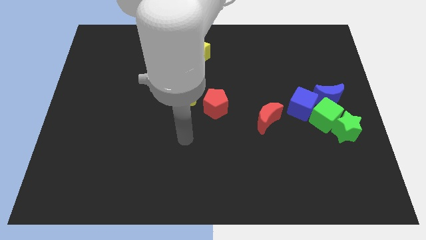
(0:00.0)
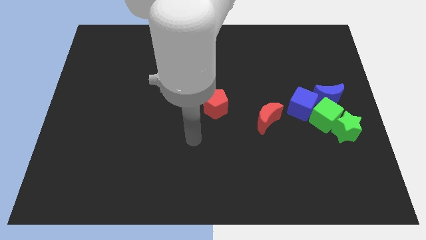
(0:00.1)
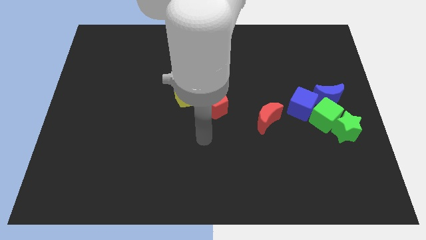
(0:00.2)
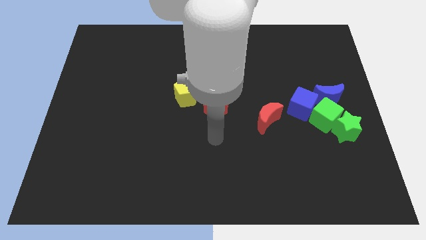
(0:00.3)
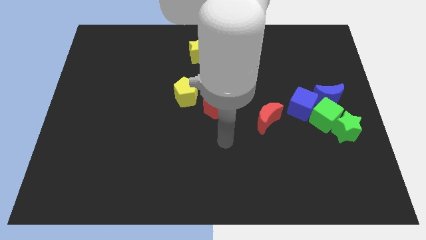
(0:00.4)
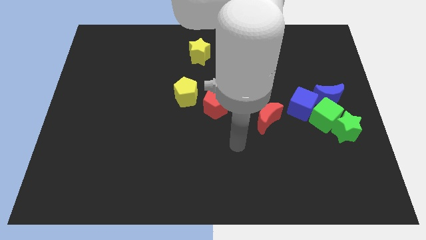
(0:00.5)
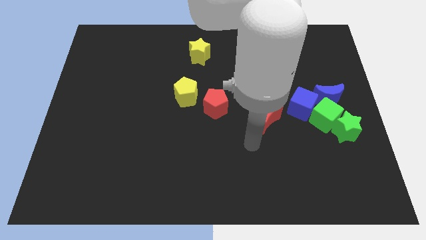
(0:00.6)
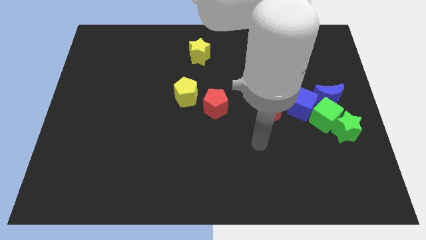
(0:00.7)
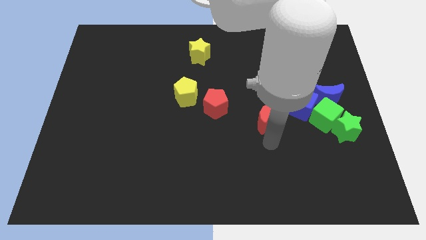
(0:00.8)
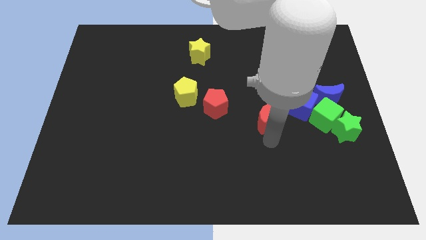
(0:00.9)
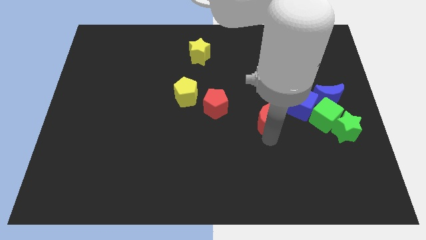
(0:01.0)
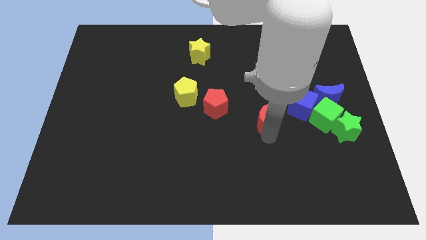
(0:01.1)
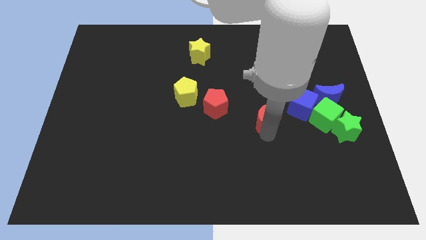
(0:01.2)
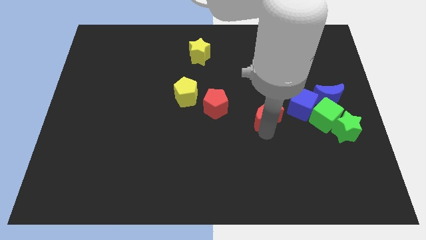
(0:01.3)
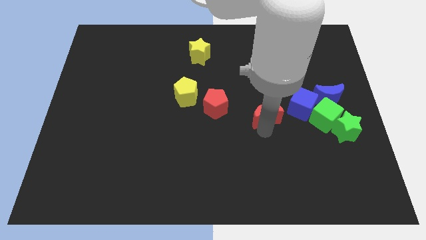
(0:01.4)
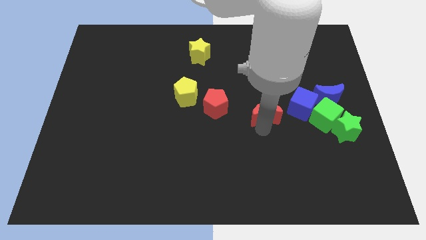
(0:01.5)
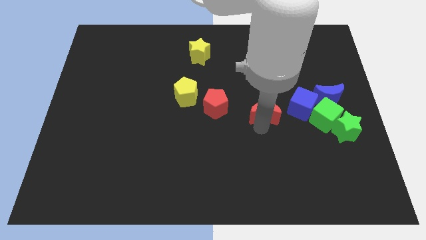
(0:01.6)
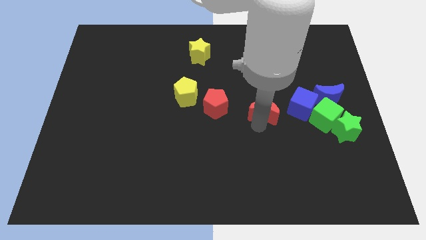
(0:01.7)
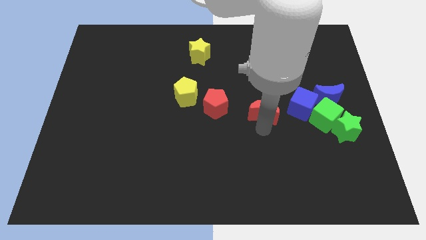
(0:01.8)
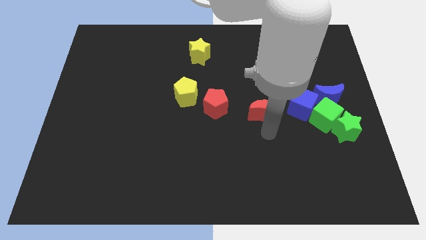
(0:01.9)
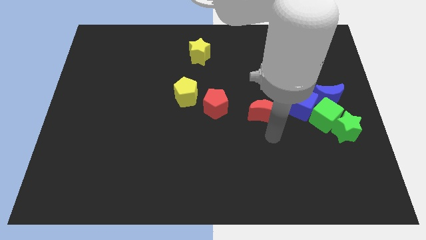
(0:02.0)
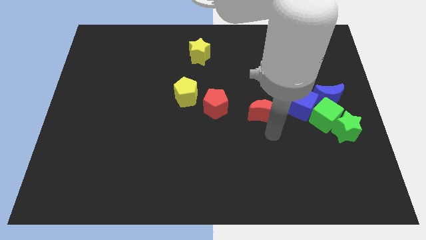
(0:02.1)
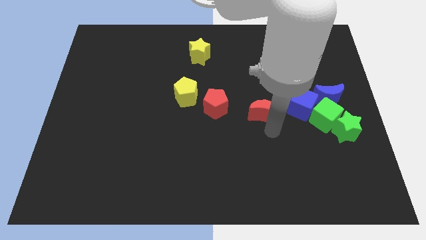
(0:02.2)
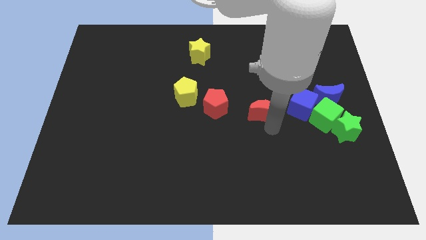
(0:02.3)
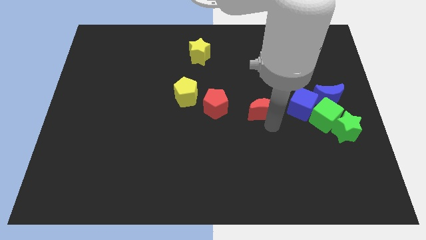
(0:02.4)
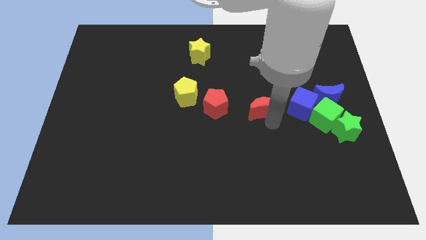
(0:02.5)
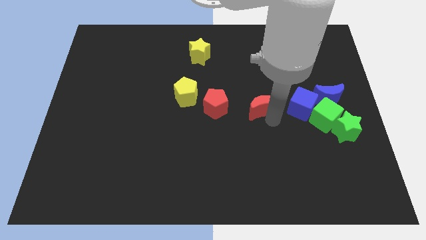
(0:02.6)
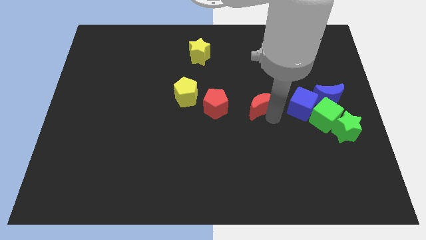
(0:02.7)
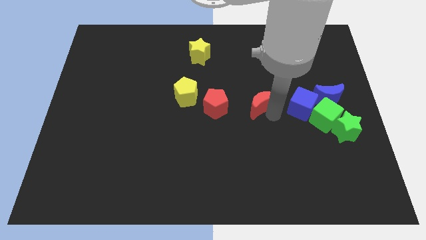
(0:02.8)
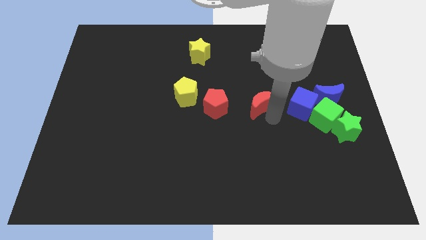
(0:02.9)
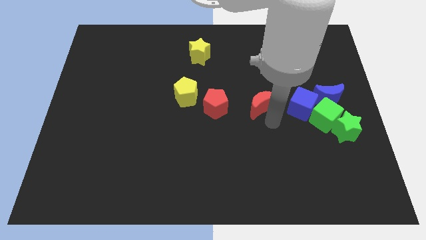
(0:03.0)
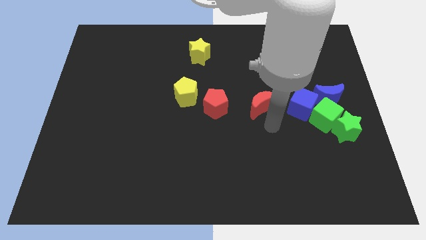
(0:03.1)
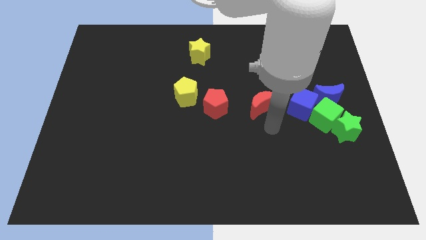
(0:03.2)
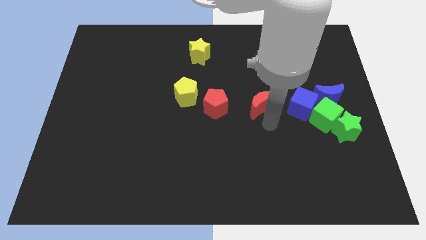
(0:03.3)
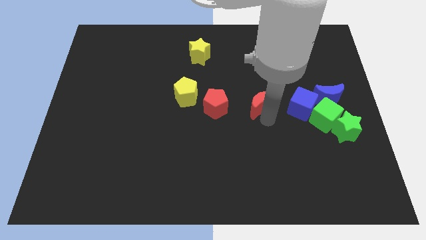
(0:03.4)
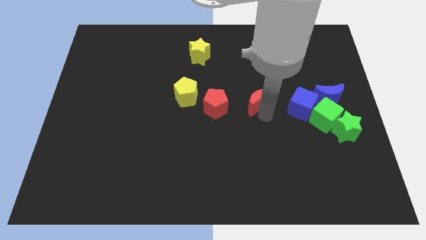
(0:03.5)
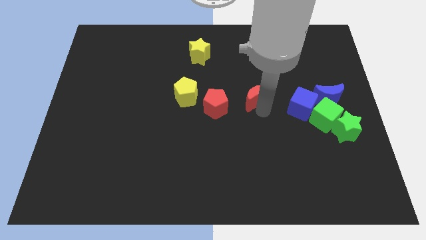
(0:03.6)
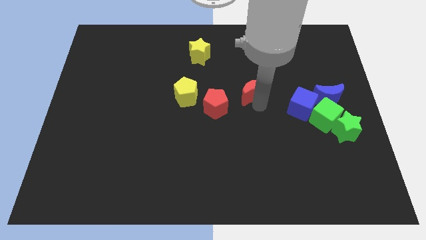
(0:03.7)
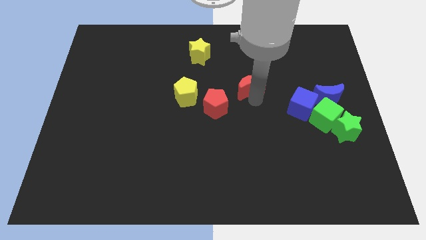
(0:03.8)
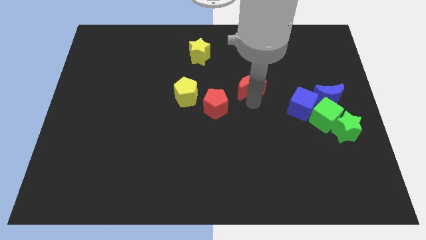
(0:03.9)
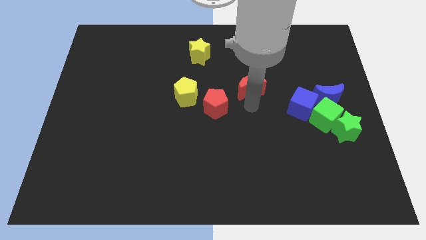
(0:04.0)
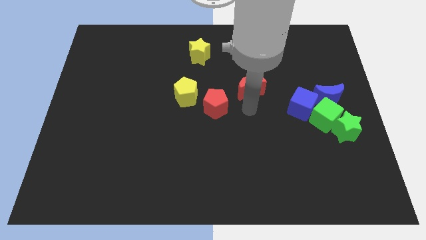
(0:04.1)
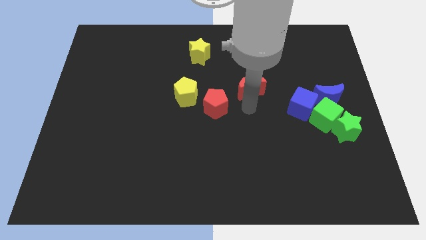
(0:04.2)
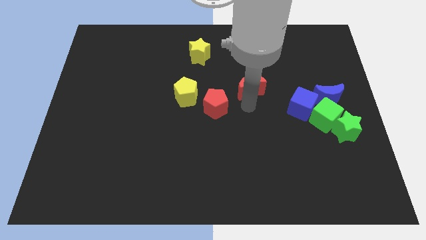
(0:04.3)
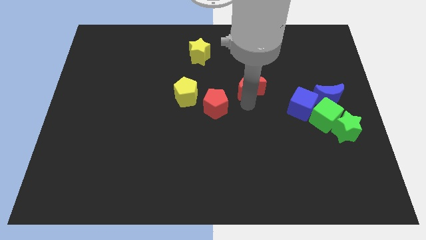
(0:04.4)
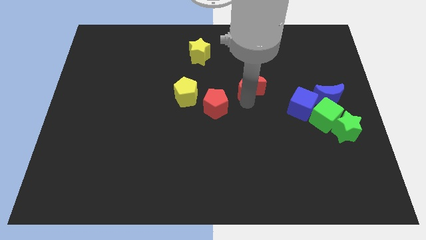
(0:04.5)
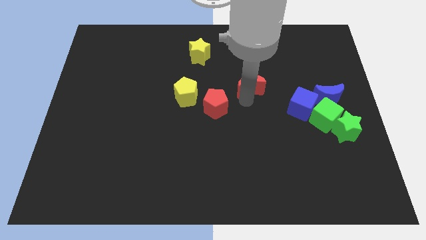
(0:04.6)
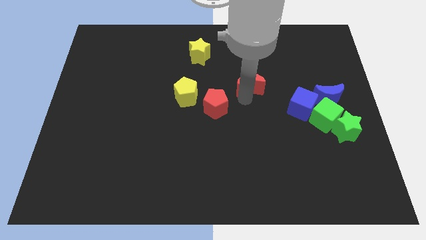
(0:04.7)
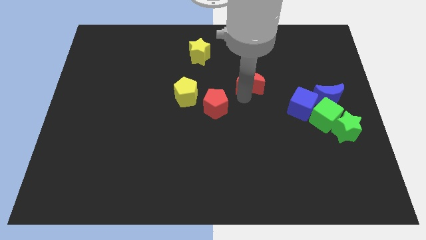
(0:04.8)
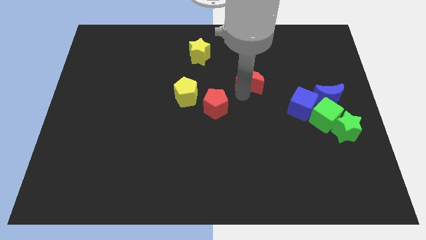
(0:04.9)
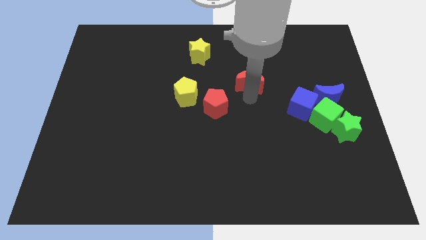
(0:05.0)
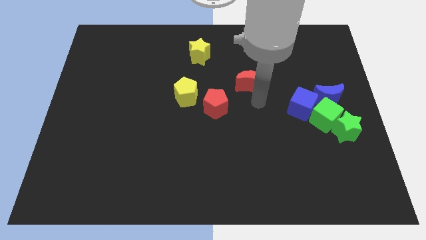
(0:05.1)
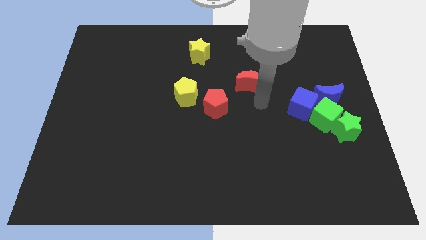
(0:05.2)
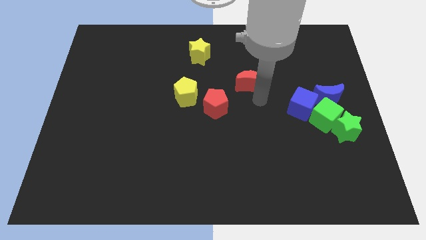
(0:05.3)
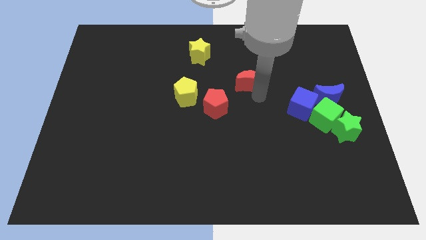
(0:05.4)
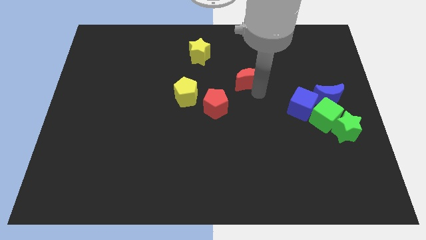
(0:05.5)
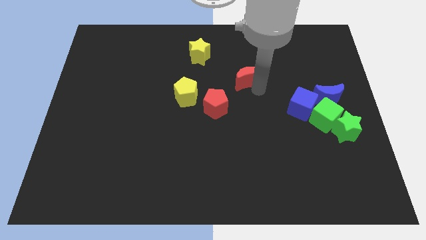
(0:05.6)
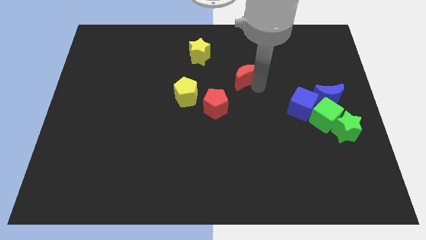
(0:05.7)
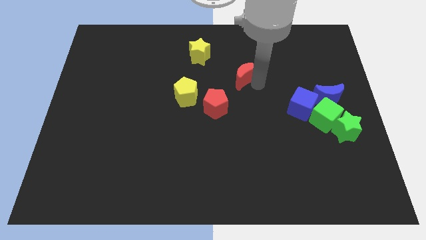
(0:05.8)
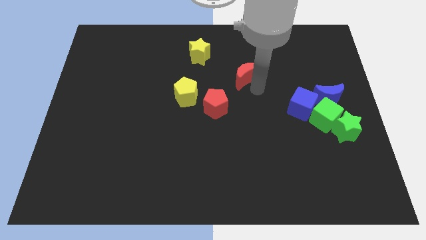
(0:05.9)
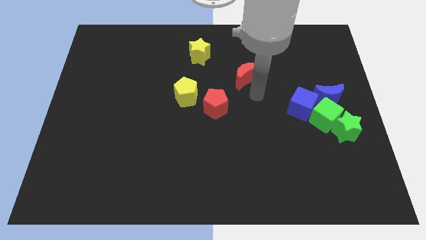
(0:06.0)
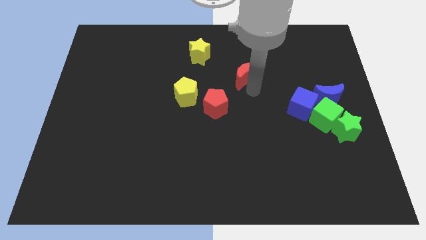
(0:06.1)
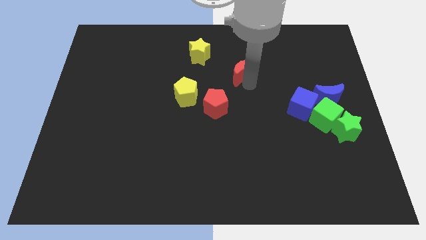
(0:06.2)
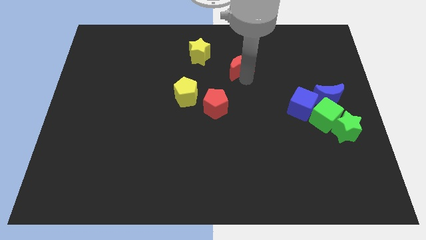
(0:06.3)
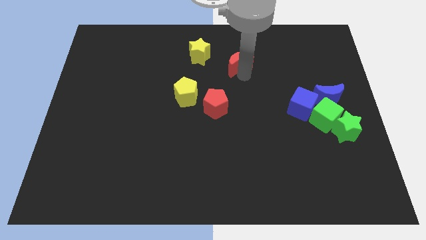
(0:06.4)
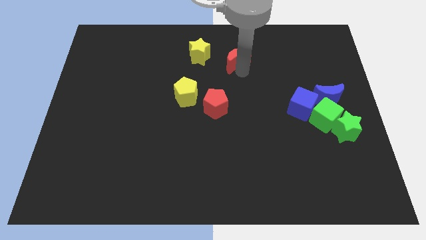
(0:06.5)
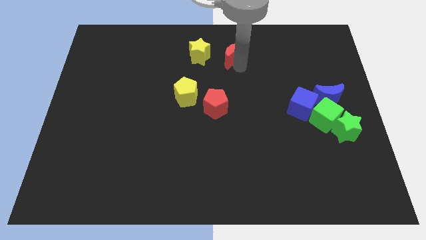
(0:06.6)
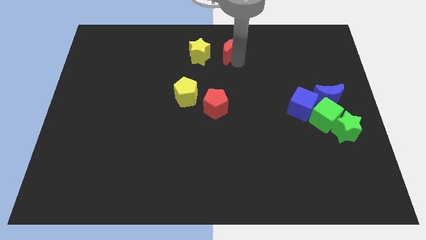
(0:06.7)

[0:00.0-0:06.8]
move the red moon to the top
